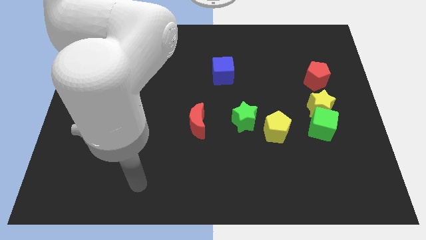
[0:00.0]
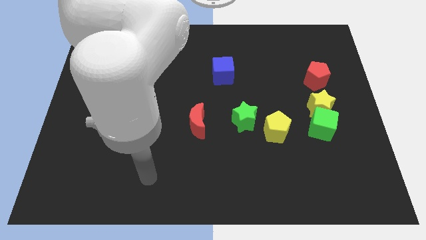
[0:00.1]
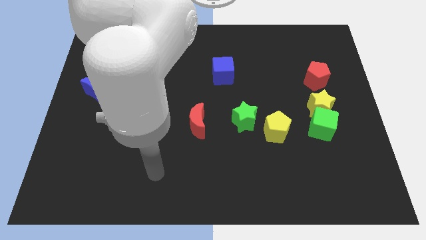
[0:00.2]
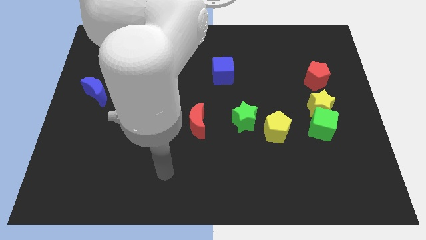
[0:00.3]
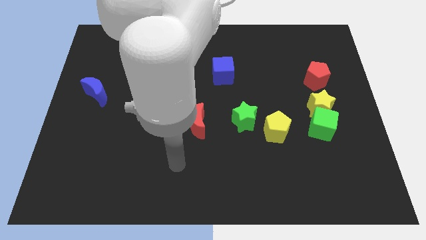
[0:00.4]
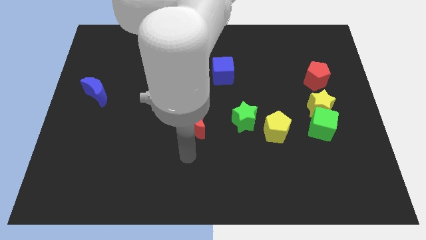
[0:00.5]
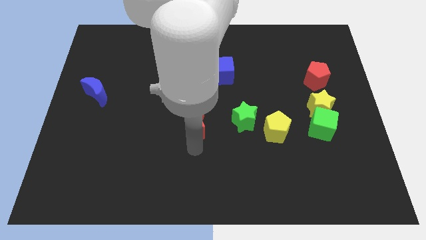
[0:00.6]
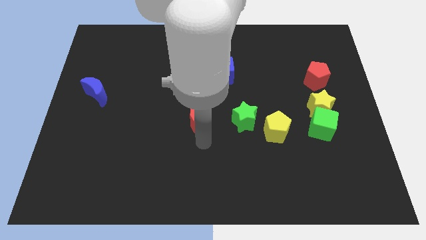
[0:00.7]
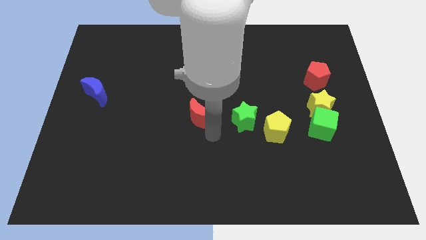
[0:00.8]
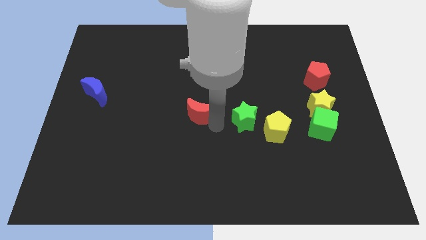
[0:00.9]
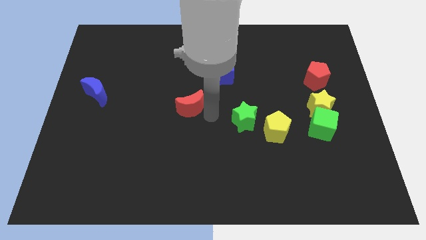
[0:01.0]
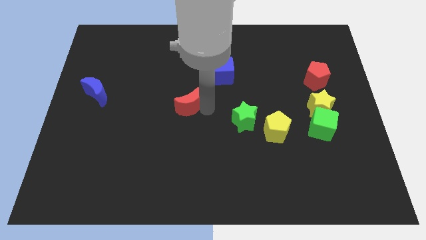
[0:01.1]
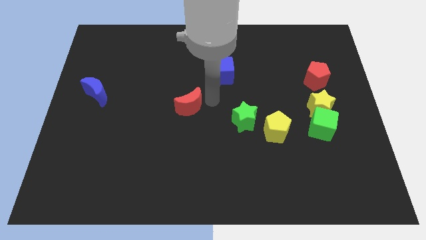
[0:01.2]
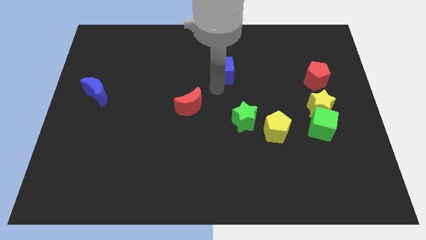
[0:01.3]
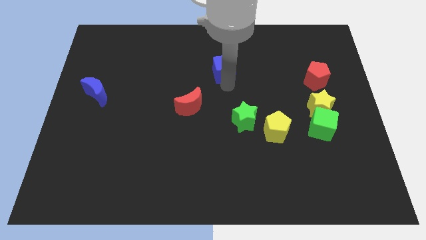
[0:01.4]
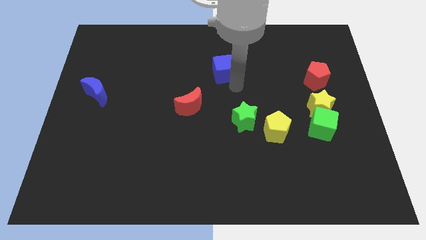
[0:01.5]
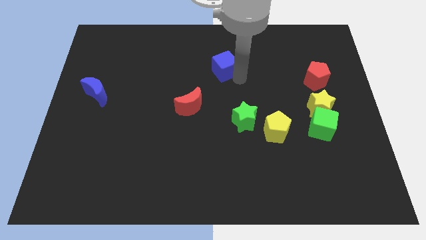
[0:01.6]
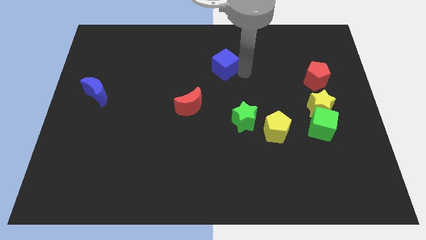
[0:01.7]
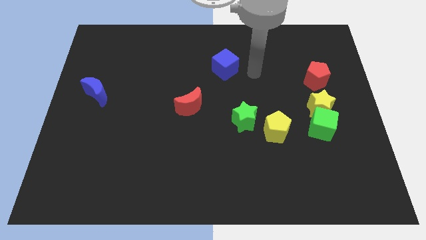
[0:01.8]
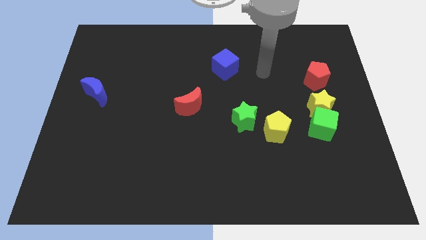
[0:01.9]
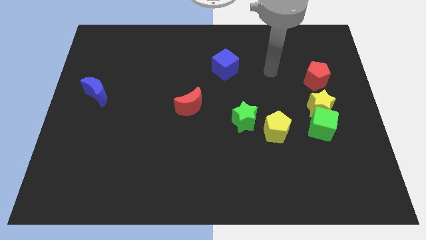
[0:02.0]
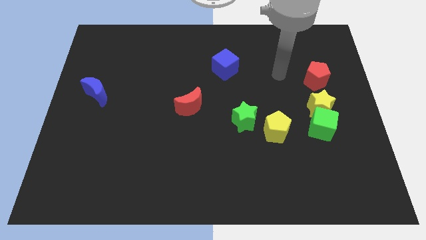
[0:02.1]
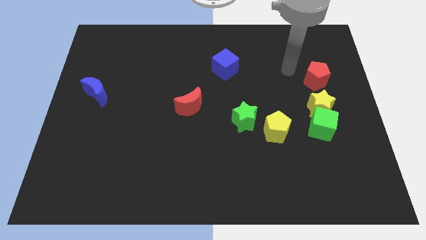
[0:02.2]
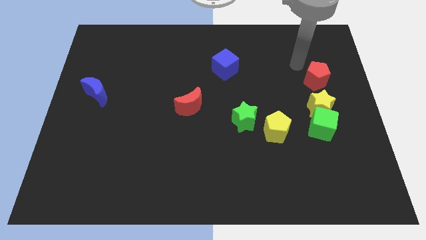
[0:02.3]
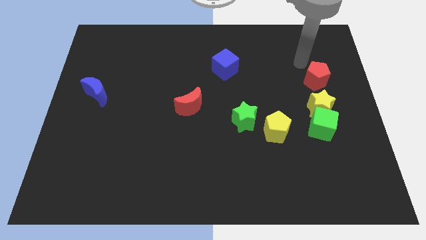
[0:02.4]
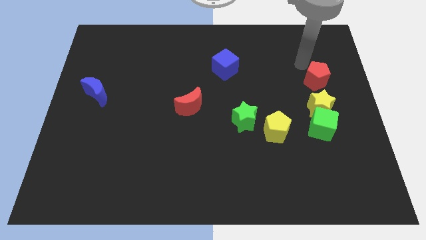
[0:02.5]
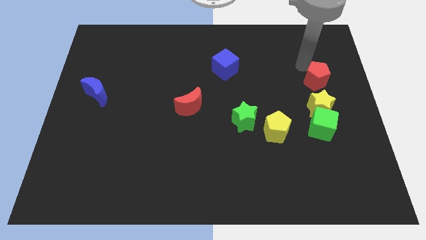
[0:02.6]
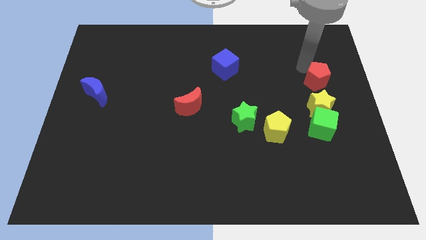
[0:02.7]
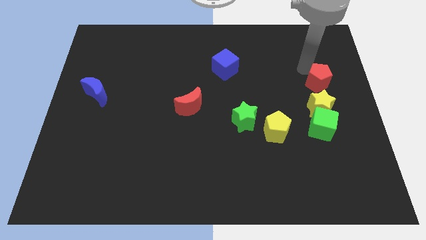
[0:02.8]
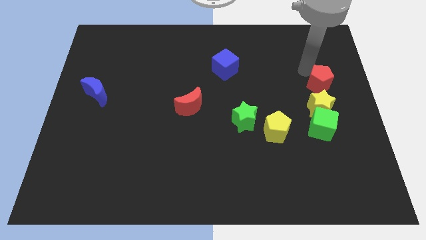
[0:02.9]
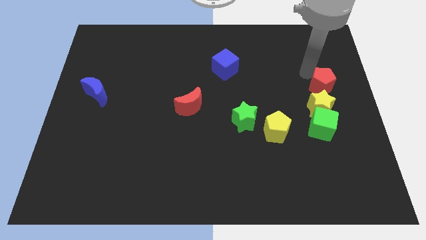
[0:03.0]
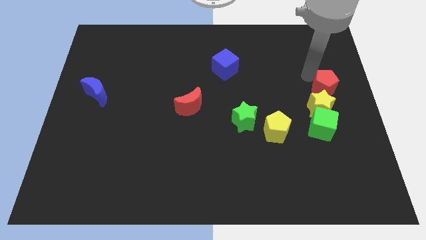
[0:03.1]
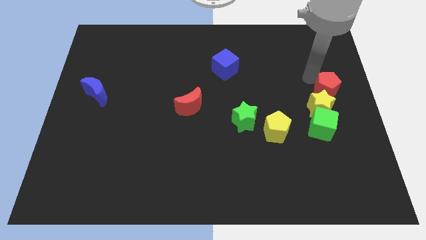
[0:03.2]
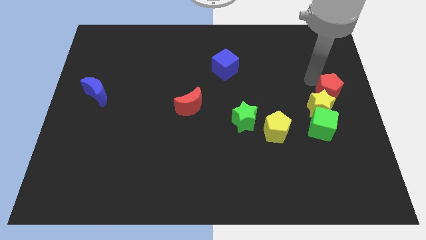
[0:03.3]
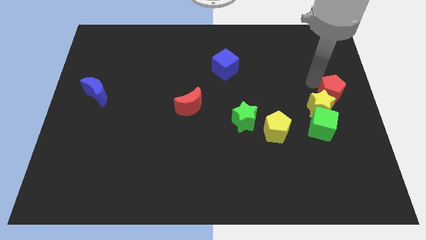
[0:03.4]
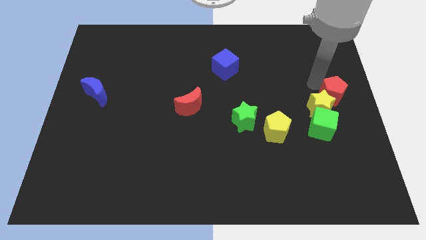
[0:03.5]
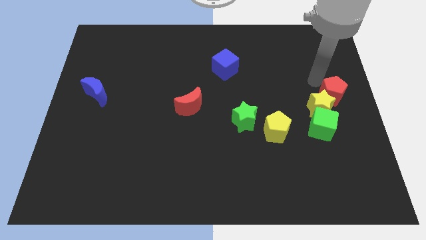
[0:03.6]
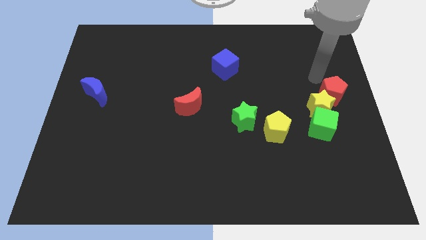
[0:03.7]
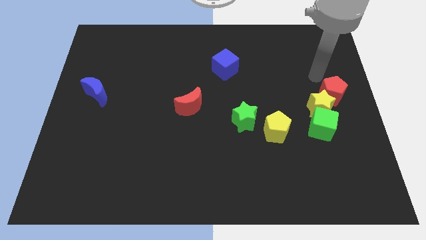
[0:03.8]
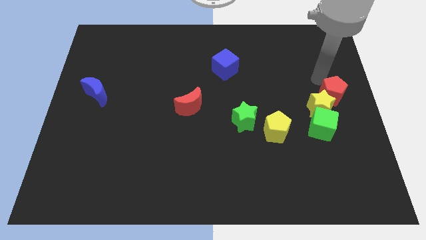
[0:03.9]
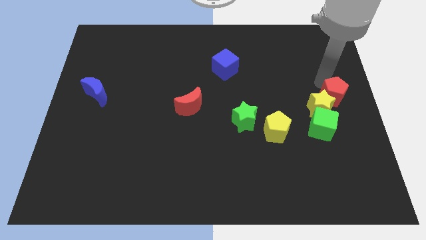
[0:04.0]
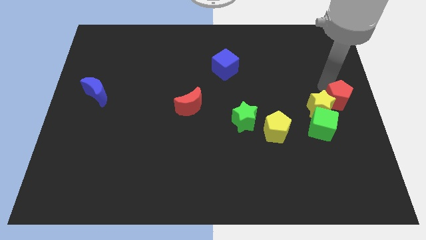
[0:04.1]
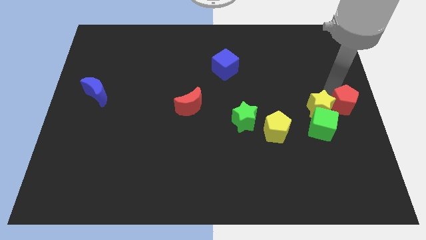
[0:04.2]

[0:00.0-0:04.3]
move the red pentagon down somewhat

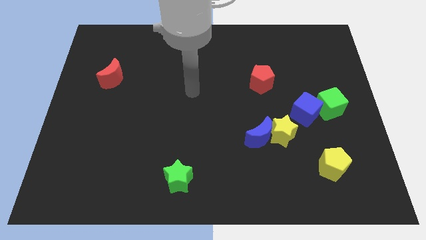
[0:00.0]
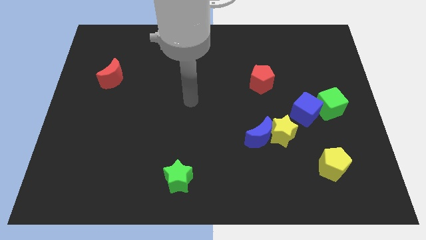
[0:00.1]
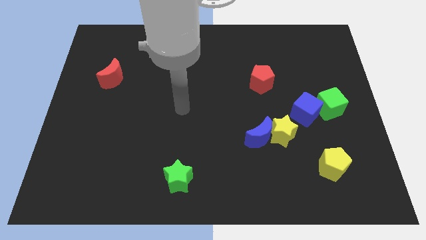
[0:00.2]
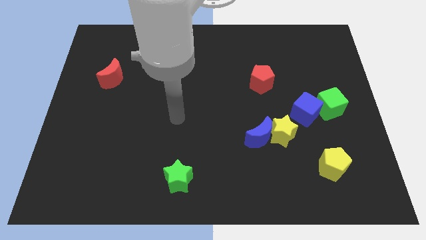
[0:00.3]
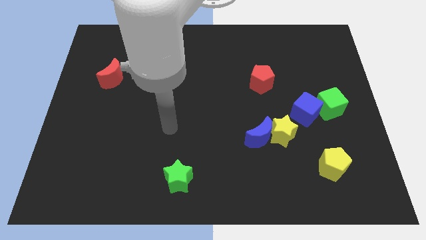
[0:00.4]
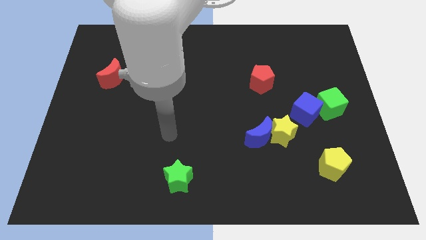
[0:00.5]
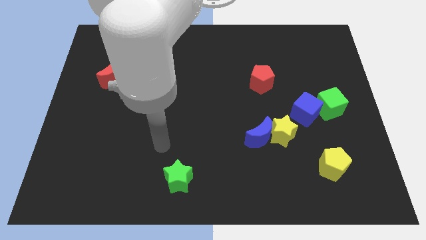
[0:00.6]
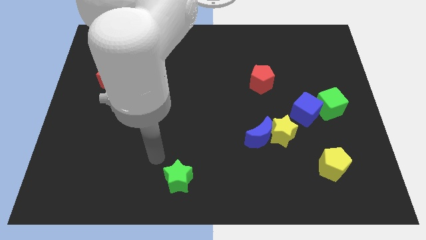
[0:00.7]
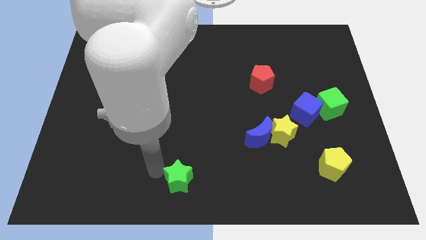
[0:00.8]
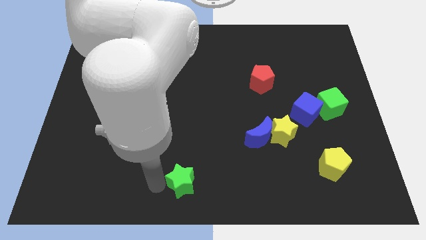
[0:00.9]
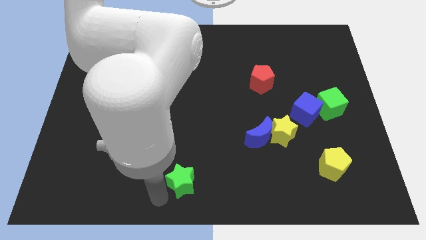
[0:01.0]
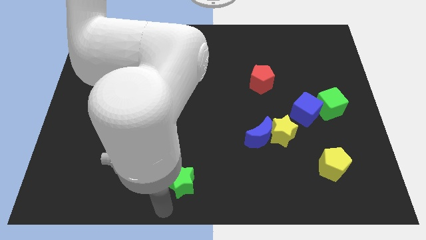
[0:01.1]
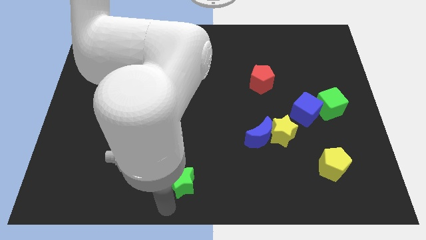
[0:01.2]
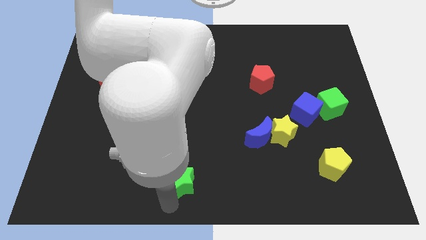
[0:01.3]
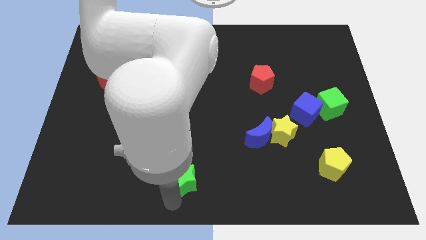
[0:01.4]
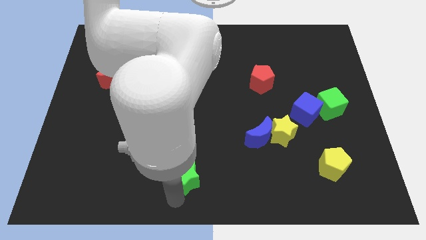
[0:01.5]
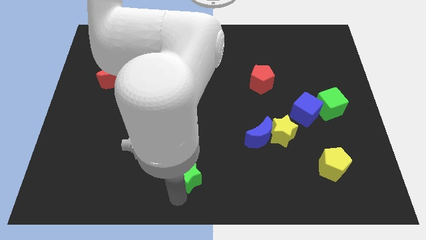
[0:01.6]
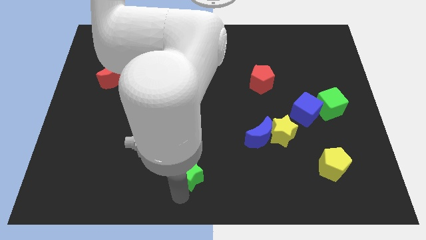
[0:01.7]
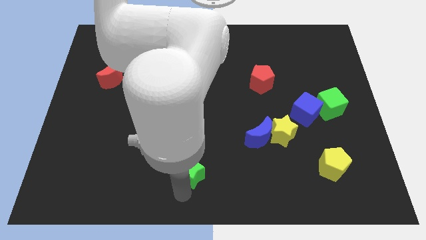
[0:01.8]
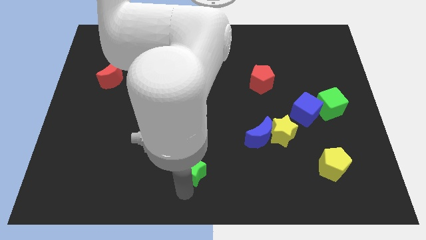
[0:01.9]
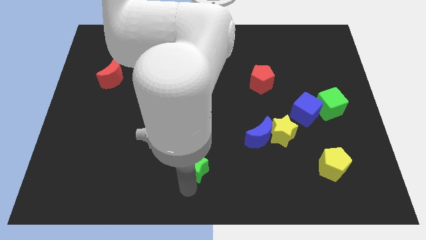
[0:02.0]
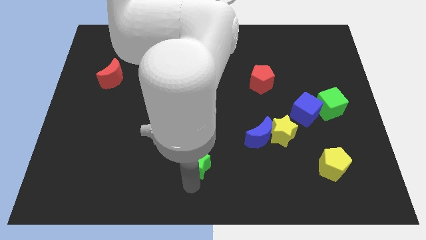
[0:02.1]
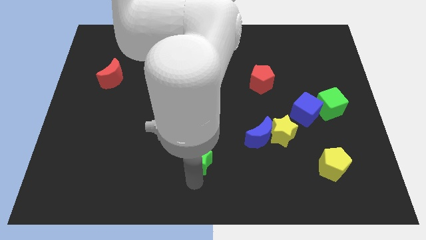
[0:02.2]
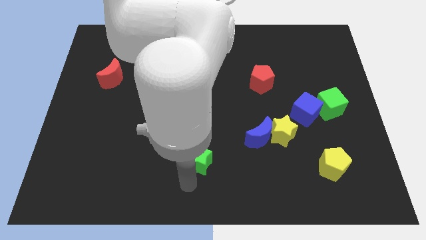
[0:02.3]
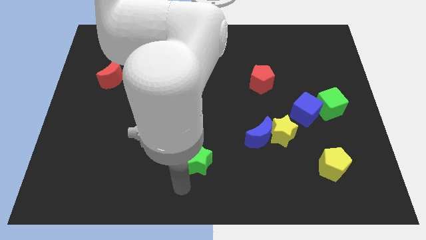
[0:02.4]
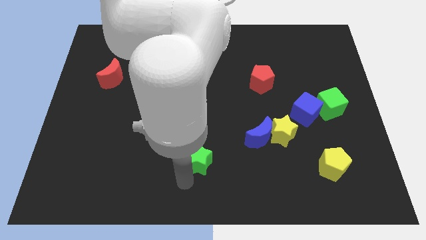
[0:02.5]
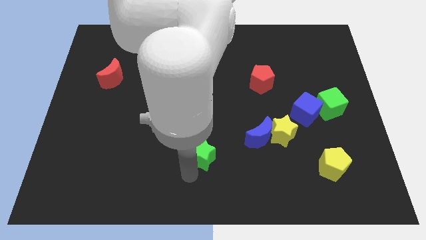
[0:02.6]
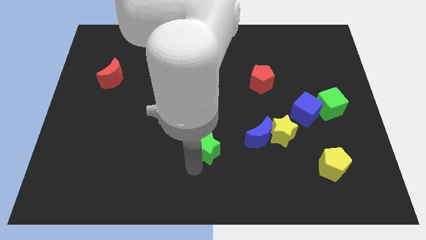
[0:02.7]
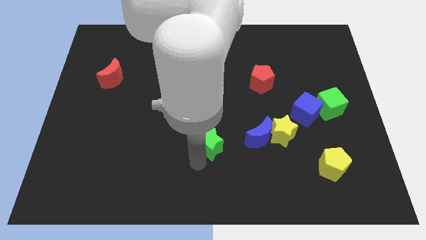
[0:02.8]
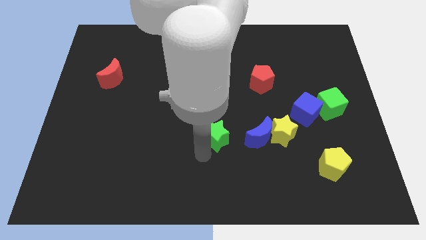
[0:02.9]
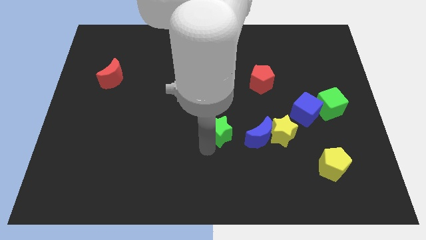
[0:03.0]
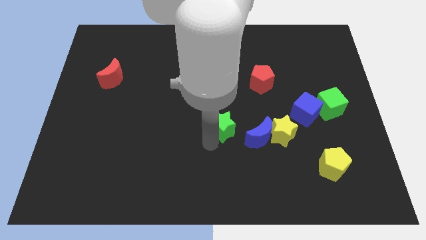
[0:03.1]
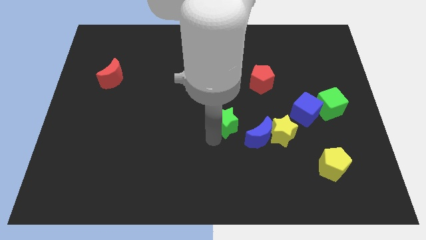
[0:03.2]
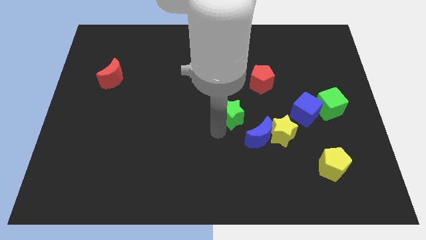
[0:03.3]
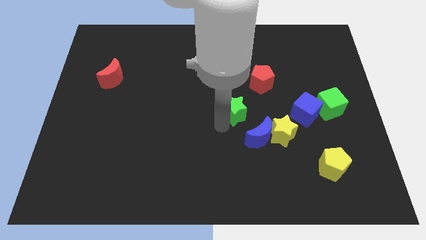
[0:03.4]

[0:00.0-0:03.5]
move the green star up and right diagonally

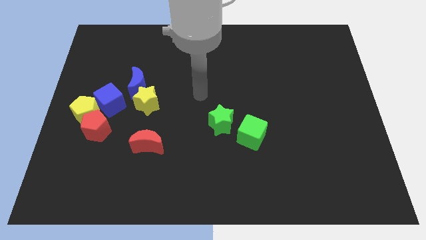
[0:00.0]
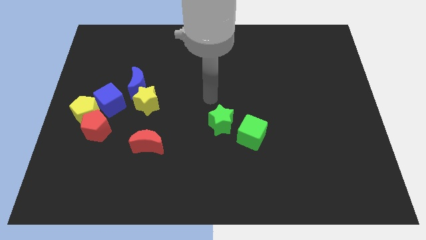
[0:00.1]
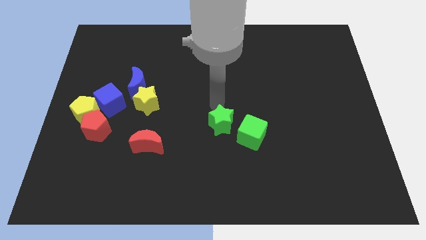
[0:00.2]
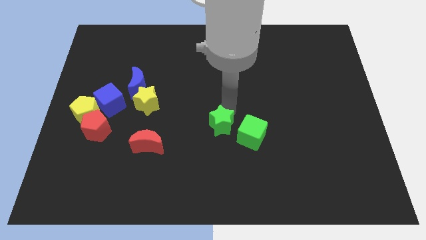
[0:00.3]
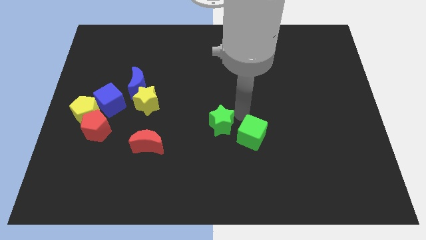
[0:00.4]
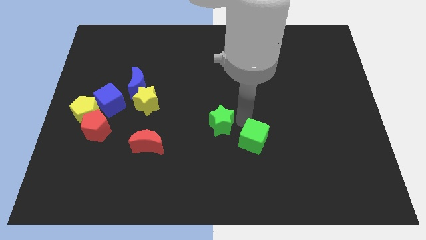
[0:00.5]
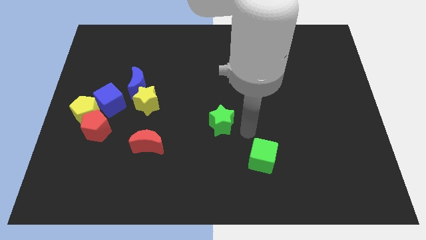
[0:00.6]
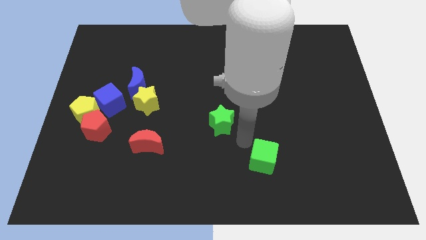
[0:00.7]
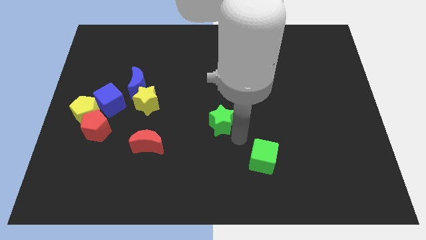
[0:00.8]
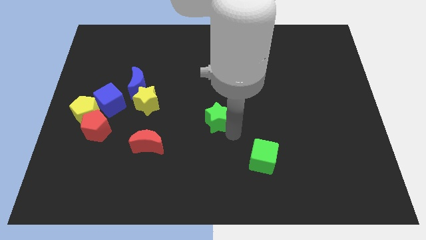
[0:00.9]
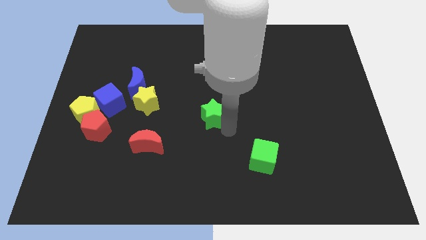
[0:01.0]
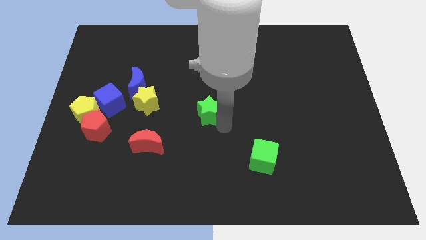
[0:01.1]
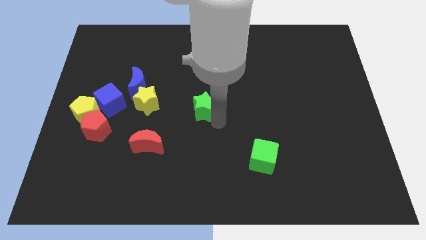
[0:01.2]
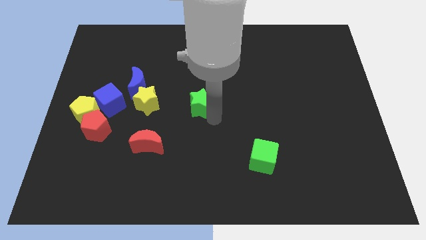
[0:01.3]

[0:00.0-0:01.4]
push the green star a bit diagonally upwards and left
